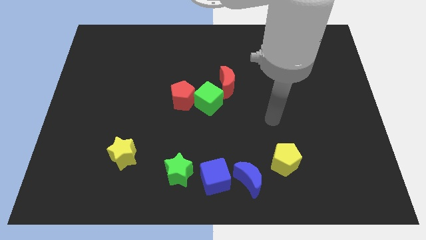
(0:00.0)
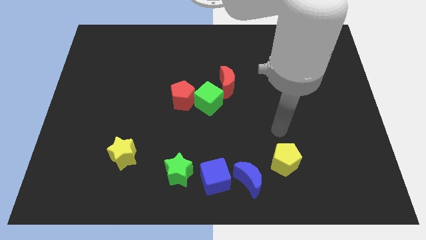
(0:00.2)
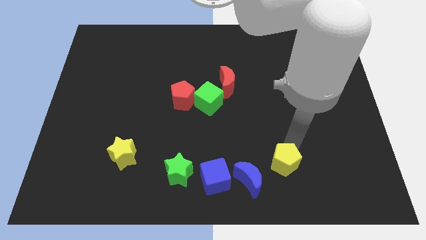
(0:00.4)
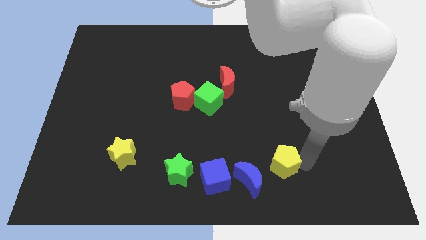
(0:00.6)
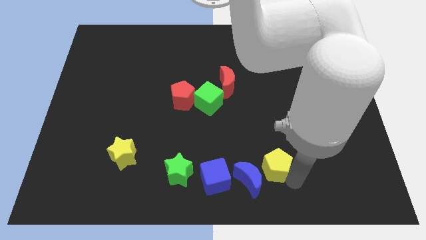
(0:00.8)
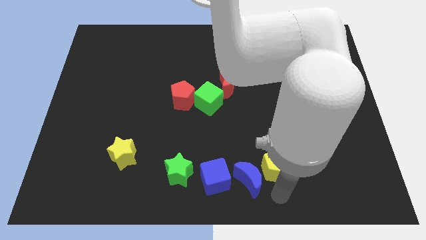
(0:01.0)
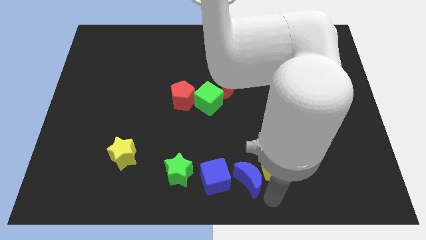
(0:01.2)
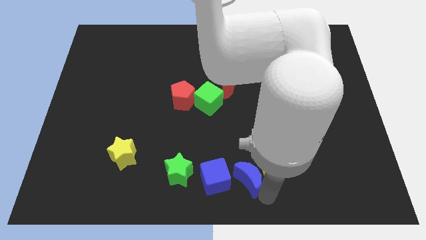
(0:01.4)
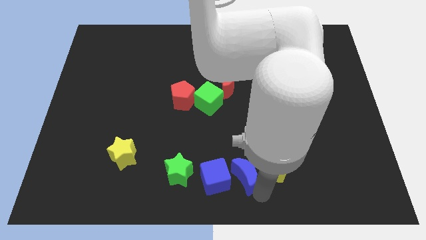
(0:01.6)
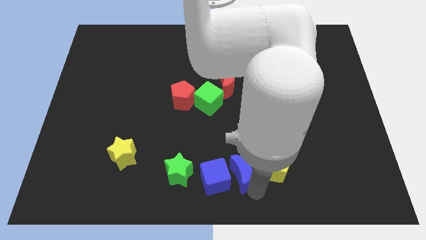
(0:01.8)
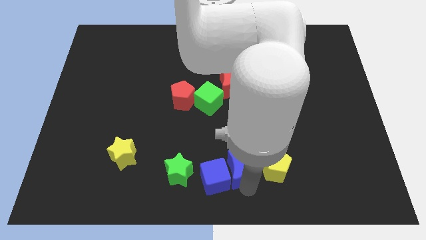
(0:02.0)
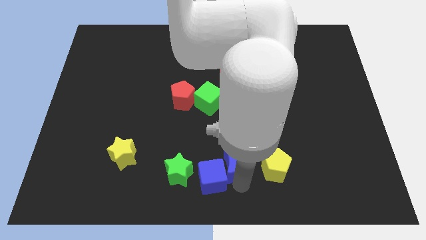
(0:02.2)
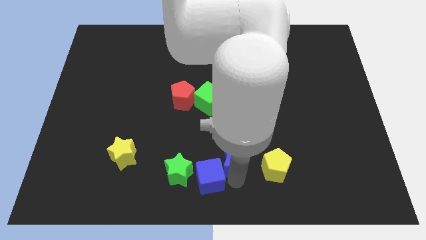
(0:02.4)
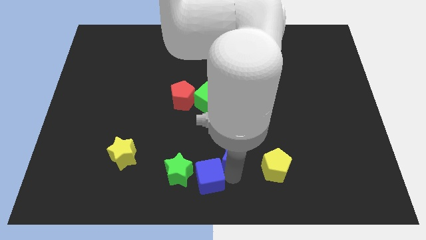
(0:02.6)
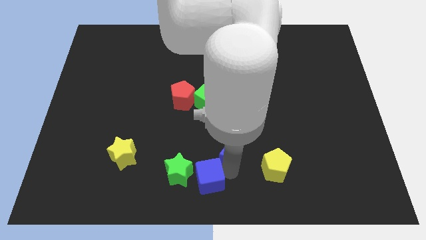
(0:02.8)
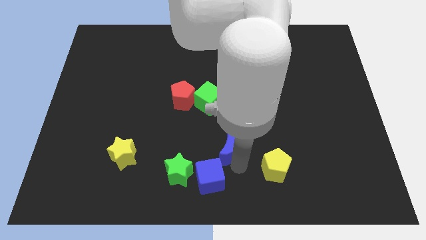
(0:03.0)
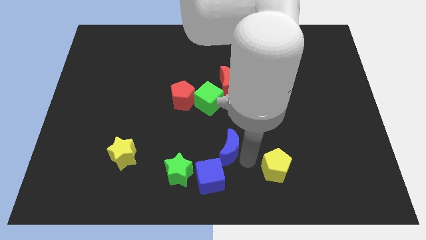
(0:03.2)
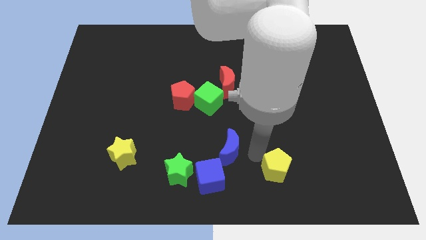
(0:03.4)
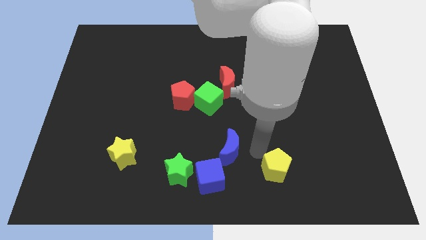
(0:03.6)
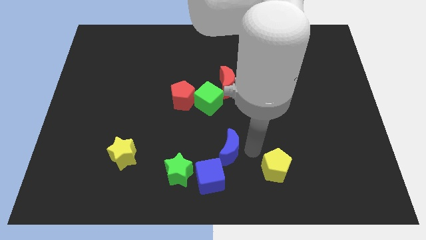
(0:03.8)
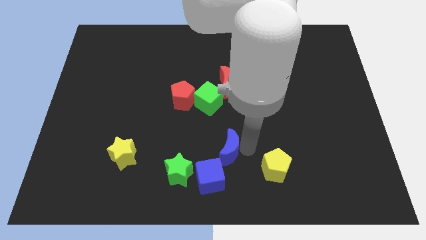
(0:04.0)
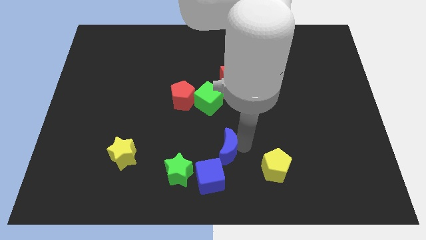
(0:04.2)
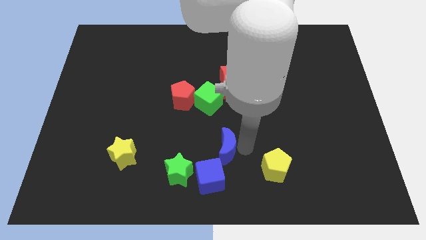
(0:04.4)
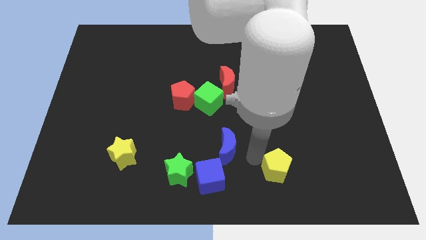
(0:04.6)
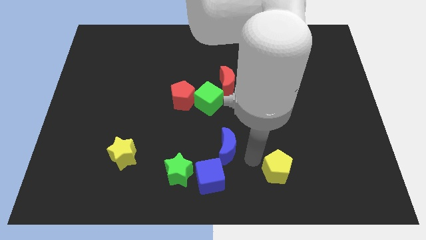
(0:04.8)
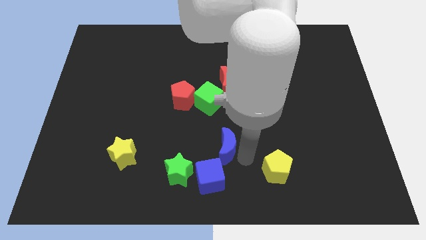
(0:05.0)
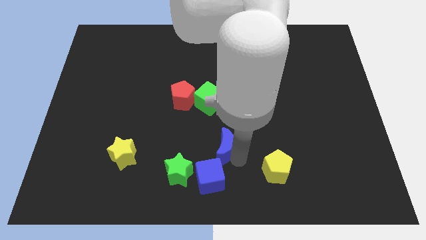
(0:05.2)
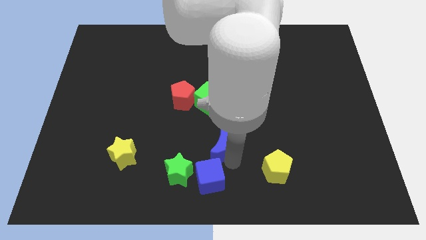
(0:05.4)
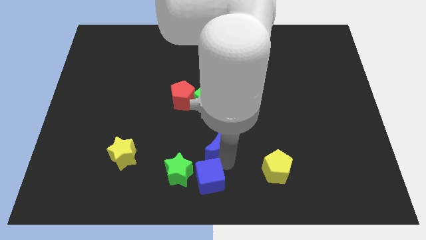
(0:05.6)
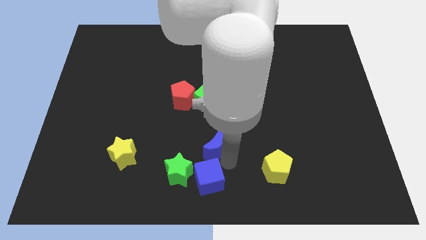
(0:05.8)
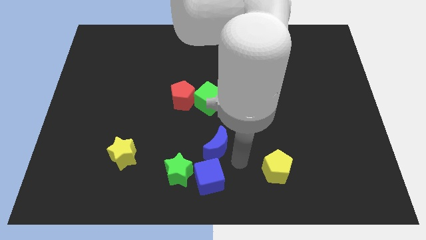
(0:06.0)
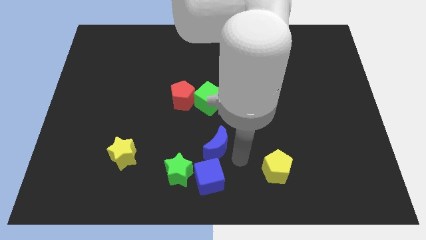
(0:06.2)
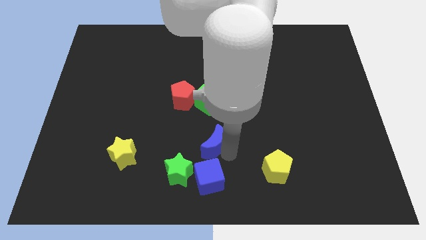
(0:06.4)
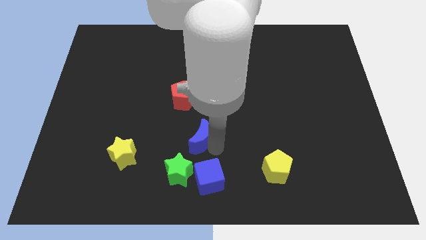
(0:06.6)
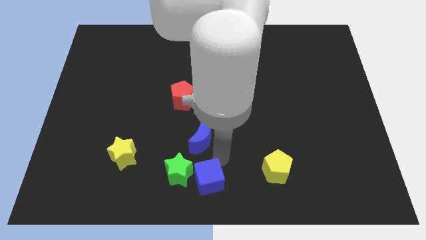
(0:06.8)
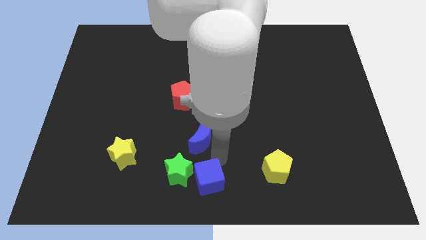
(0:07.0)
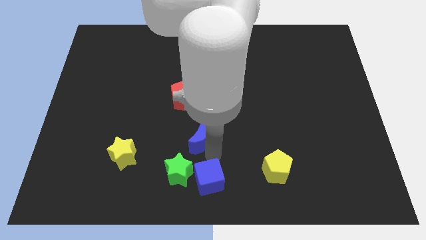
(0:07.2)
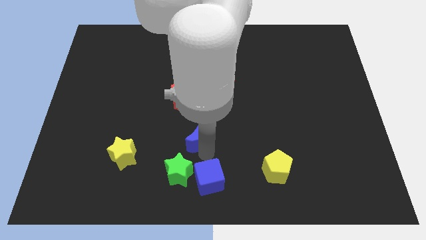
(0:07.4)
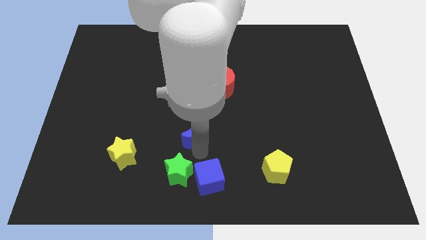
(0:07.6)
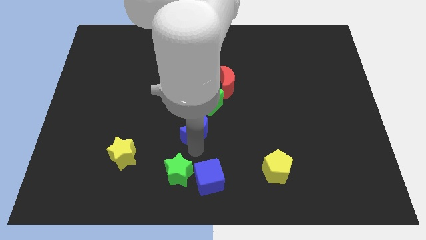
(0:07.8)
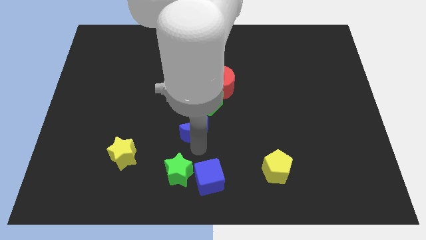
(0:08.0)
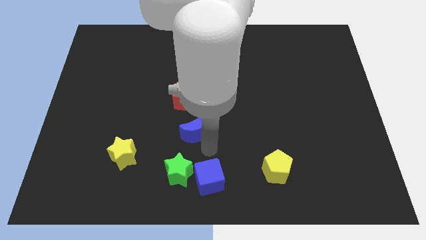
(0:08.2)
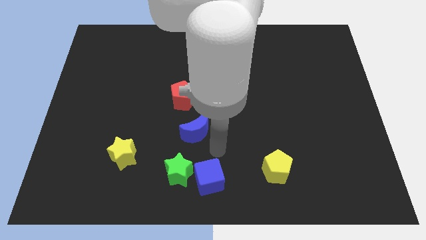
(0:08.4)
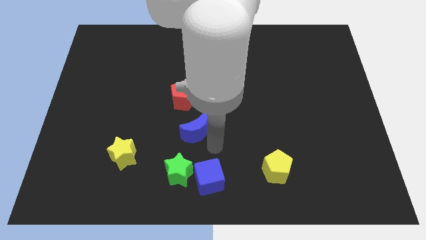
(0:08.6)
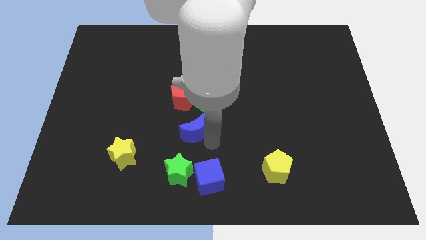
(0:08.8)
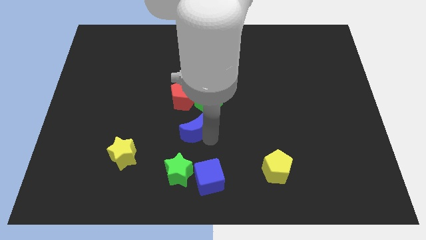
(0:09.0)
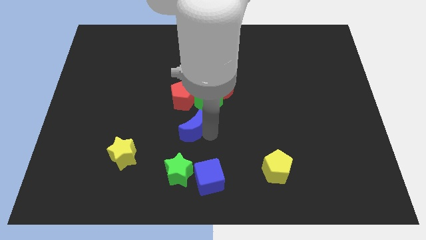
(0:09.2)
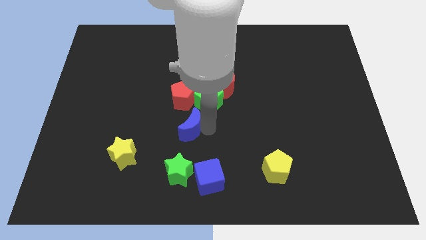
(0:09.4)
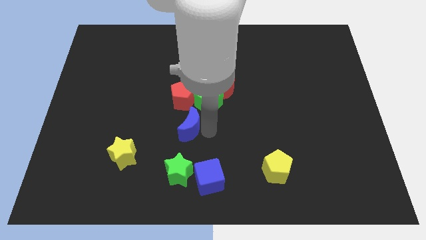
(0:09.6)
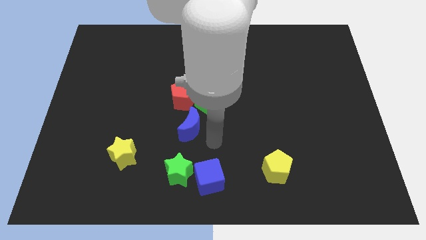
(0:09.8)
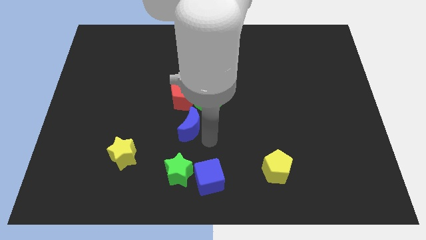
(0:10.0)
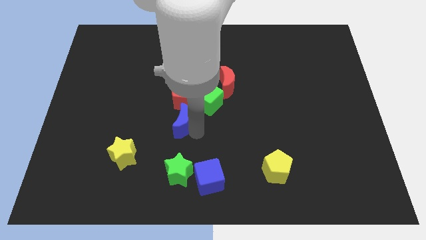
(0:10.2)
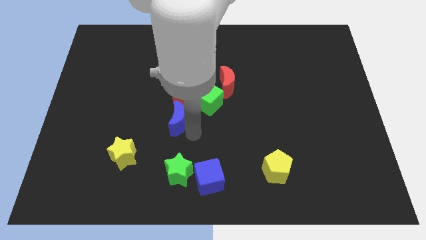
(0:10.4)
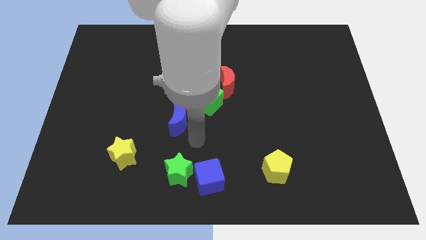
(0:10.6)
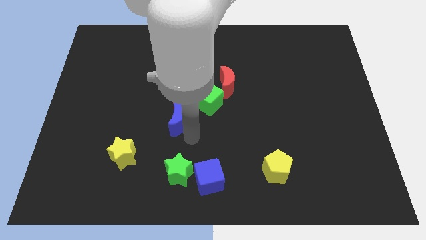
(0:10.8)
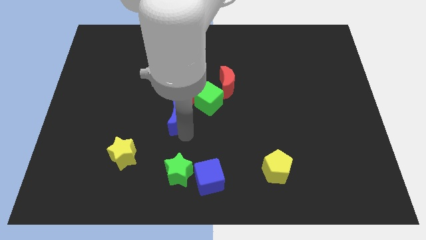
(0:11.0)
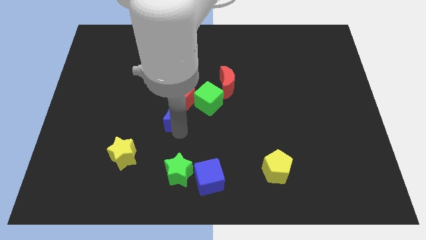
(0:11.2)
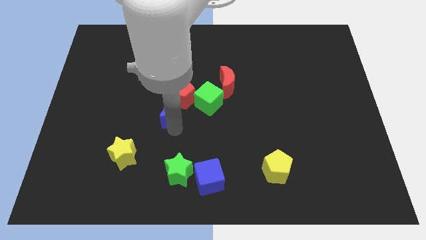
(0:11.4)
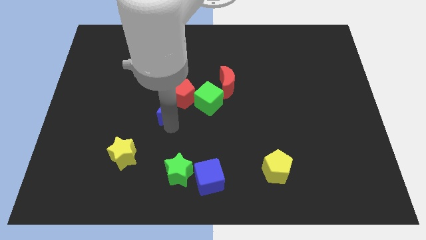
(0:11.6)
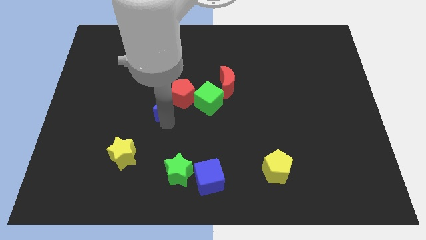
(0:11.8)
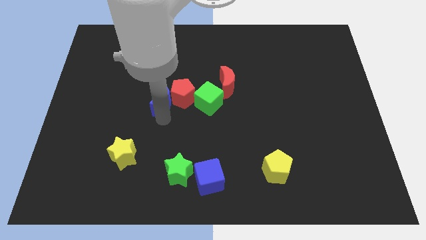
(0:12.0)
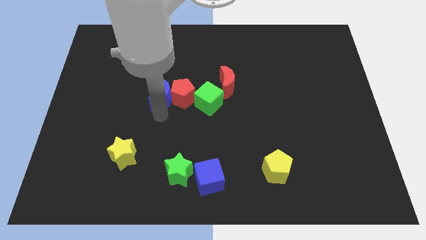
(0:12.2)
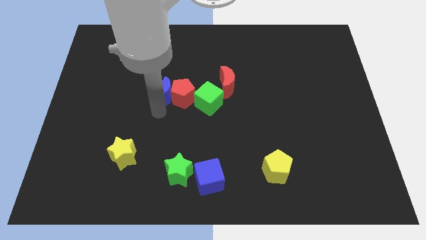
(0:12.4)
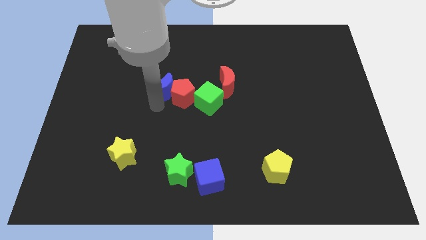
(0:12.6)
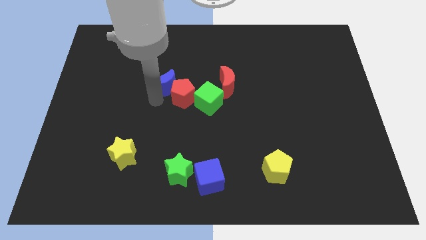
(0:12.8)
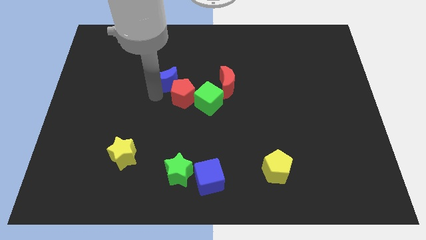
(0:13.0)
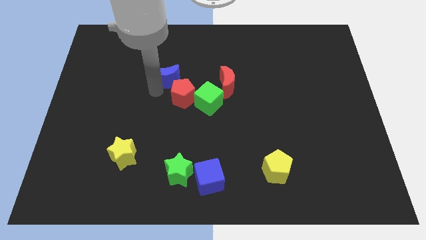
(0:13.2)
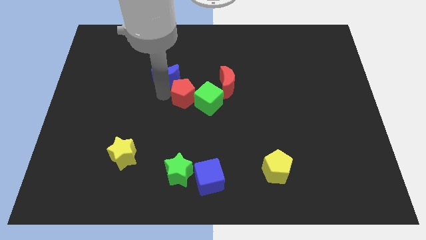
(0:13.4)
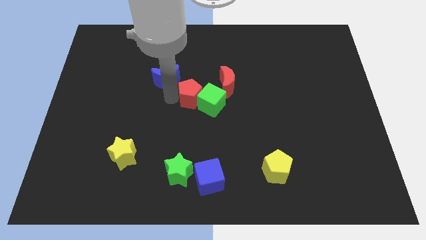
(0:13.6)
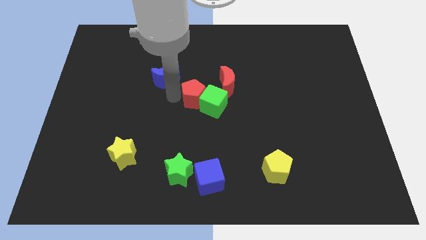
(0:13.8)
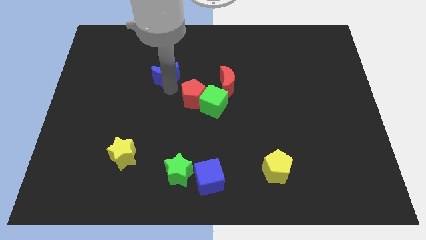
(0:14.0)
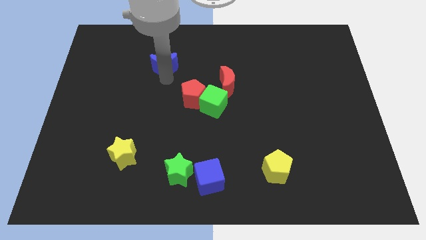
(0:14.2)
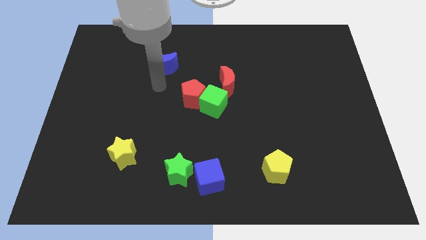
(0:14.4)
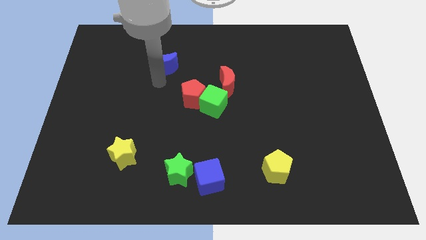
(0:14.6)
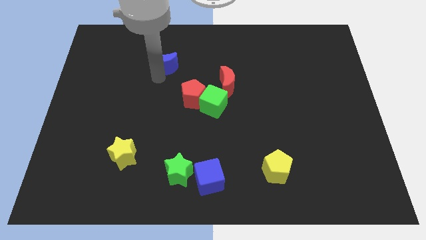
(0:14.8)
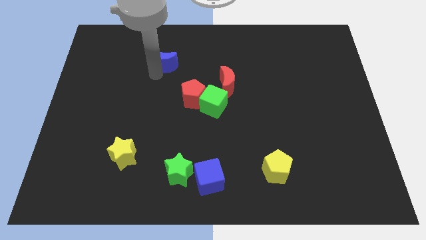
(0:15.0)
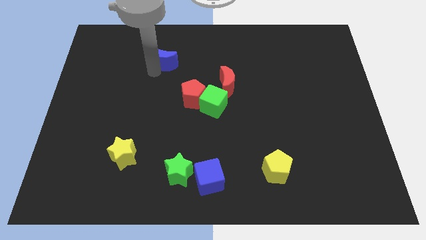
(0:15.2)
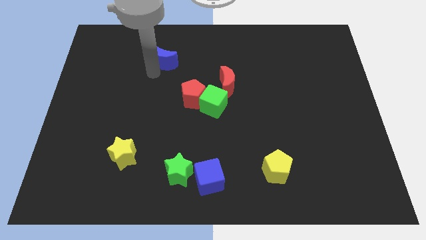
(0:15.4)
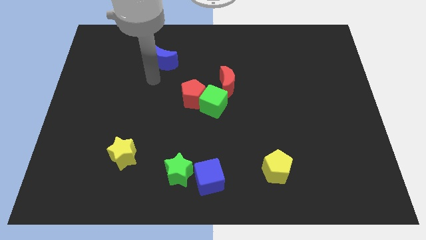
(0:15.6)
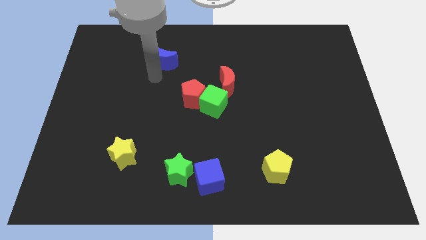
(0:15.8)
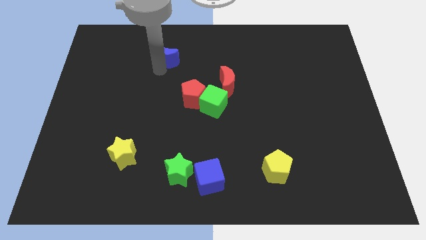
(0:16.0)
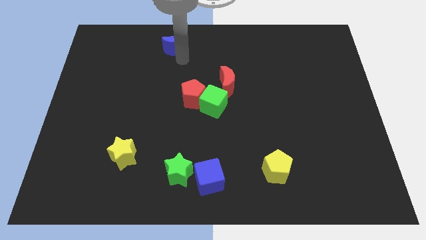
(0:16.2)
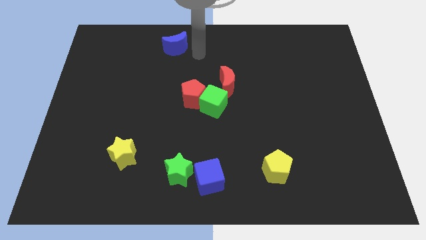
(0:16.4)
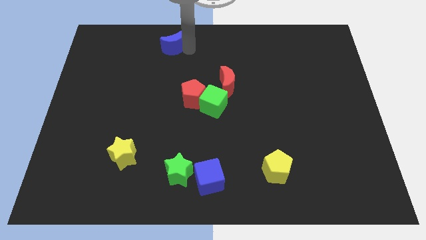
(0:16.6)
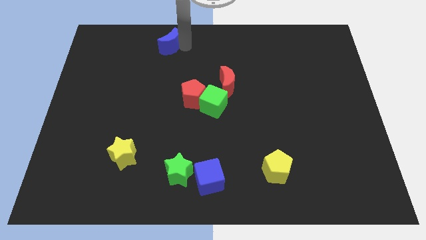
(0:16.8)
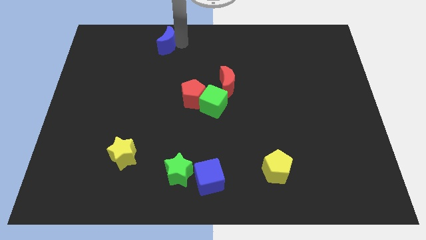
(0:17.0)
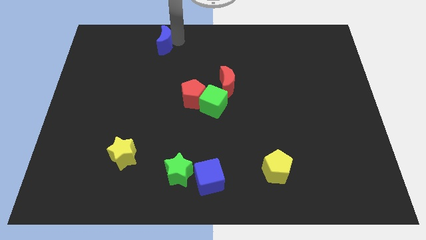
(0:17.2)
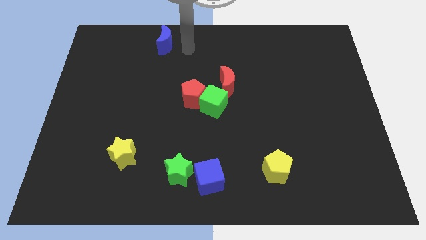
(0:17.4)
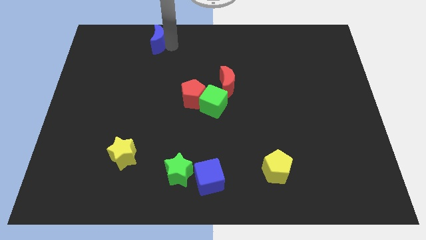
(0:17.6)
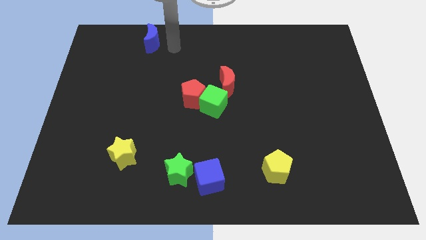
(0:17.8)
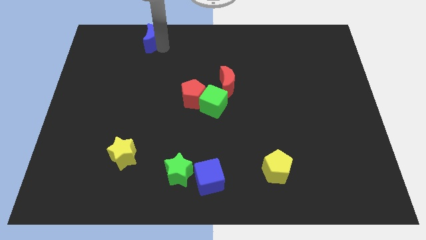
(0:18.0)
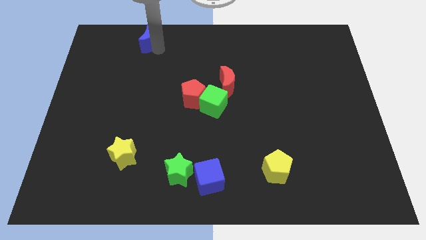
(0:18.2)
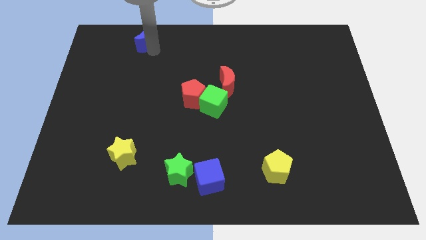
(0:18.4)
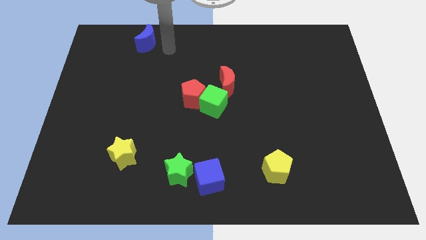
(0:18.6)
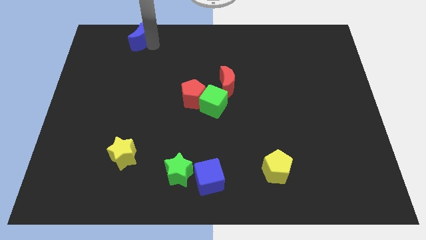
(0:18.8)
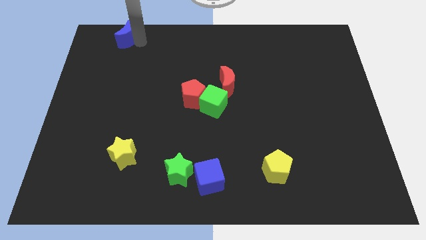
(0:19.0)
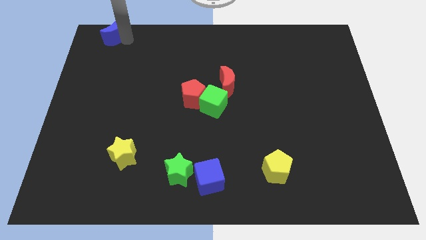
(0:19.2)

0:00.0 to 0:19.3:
slide the blue moon to the upper left corner
